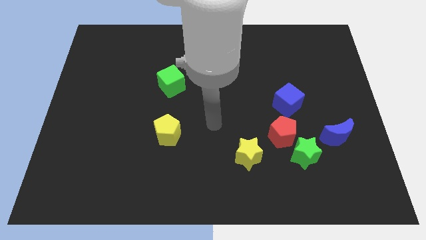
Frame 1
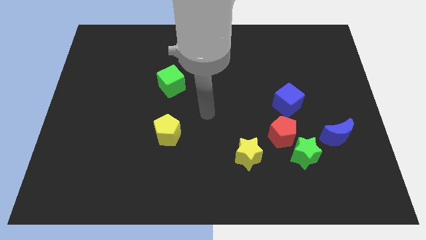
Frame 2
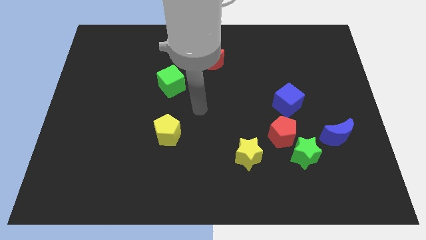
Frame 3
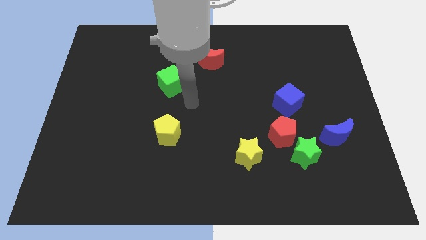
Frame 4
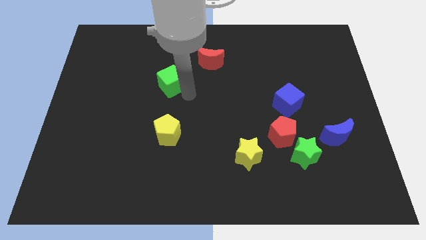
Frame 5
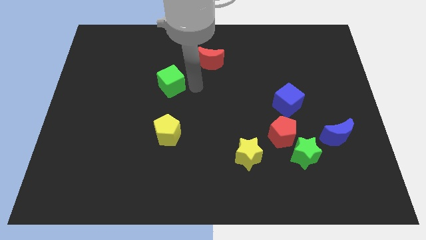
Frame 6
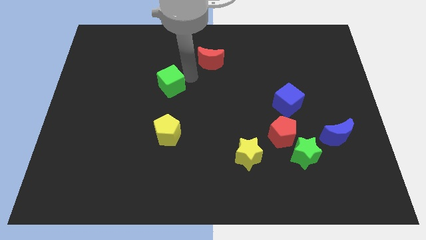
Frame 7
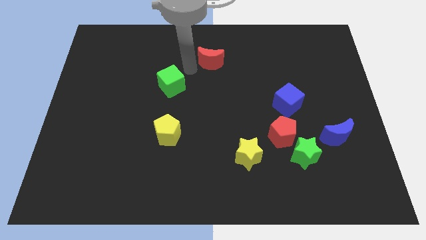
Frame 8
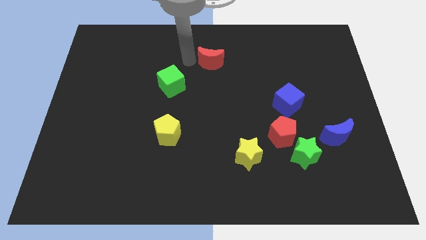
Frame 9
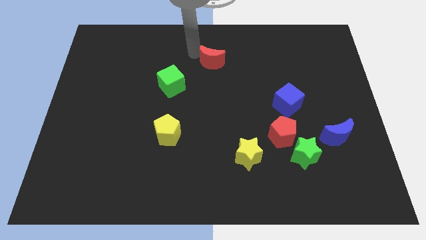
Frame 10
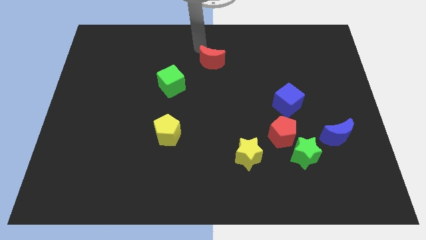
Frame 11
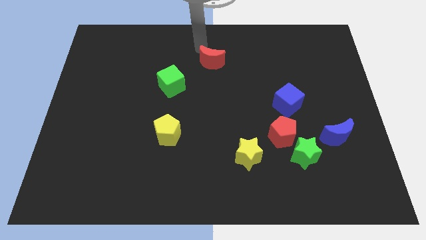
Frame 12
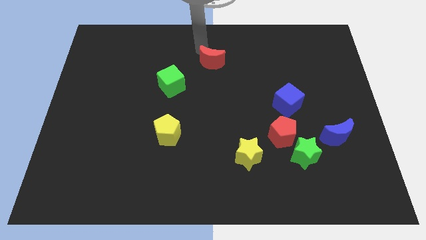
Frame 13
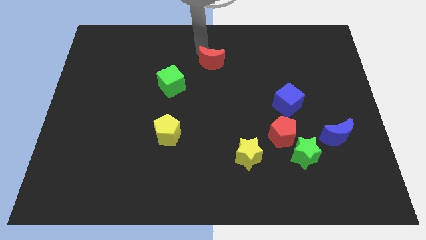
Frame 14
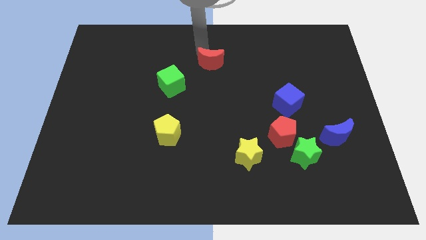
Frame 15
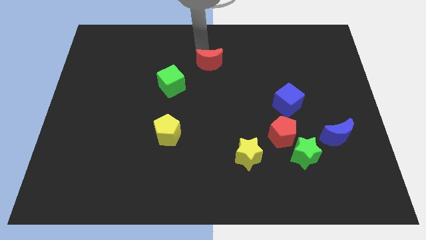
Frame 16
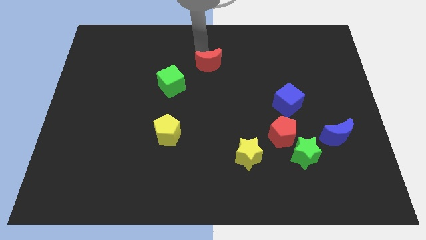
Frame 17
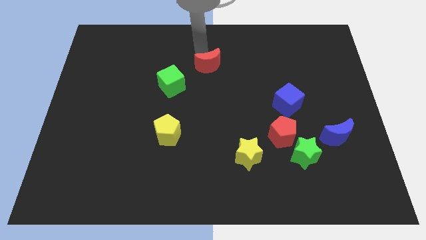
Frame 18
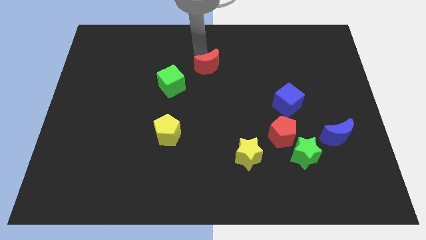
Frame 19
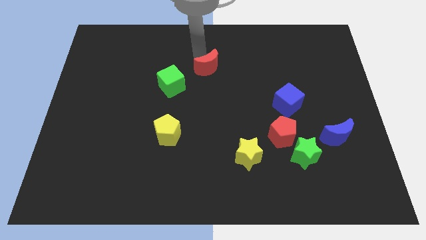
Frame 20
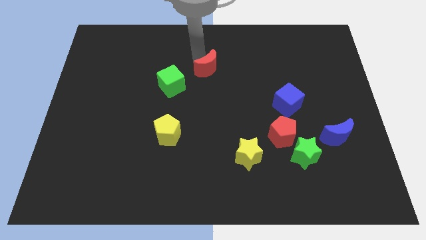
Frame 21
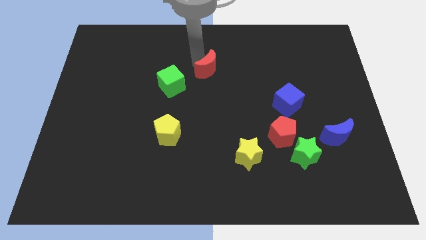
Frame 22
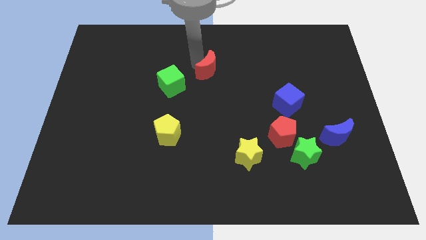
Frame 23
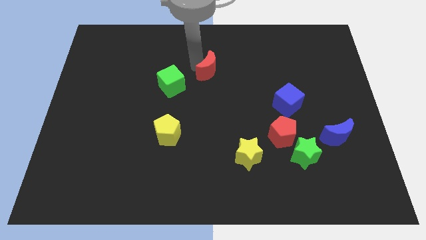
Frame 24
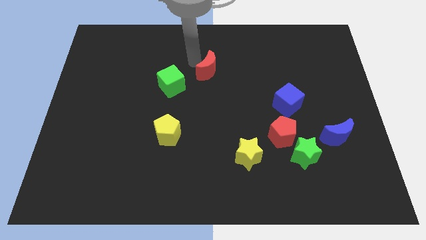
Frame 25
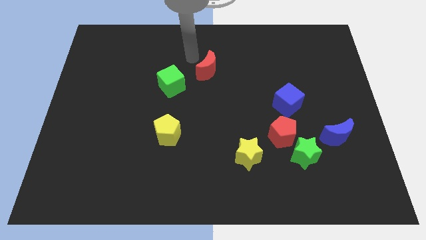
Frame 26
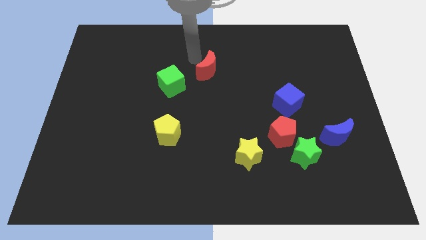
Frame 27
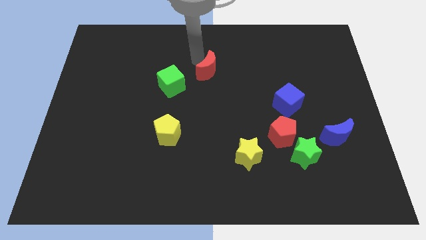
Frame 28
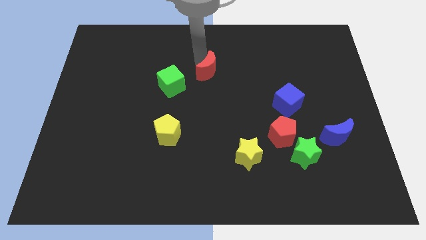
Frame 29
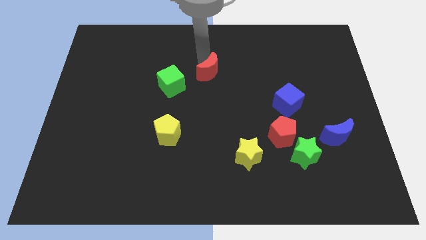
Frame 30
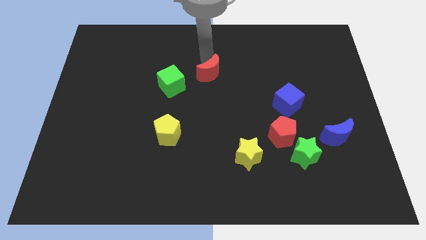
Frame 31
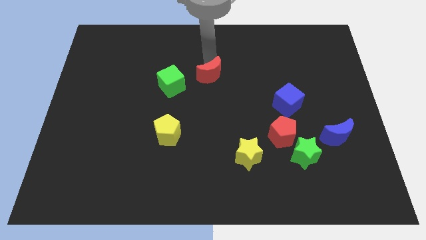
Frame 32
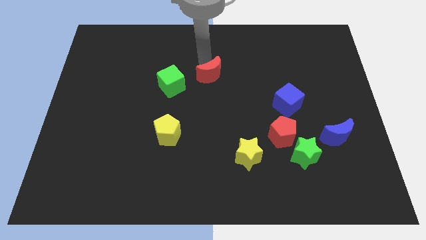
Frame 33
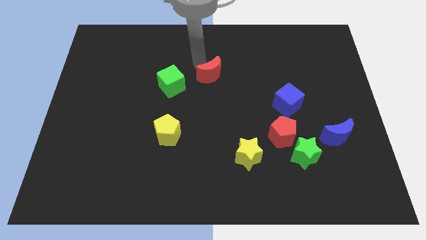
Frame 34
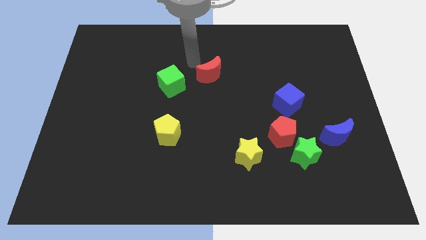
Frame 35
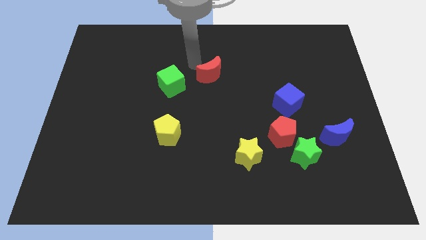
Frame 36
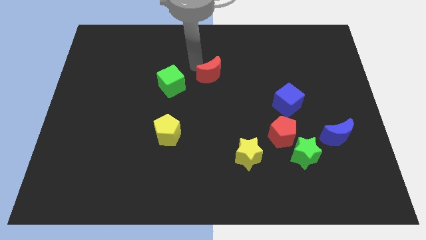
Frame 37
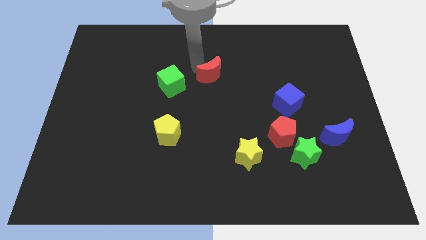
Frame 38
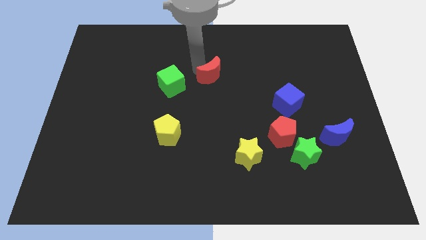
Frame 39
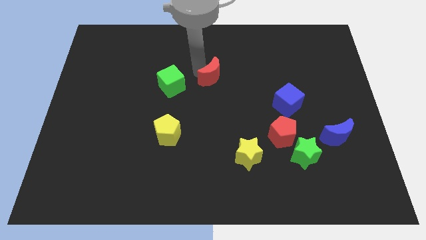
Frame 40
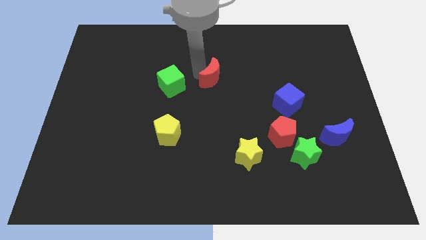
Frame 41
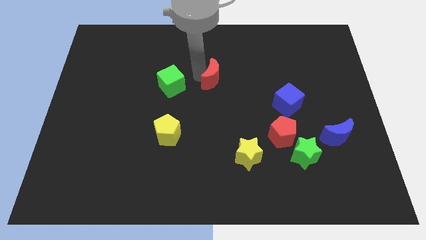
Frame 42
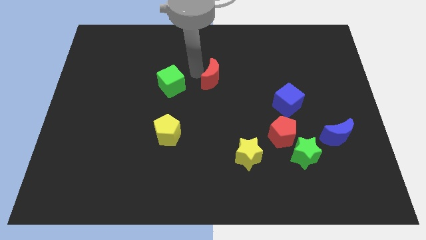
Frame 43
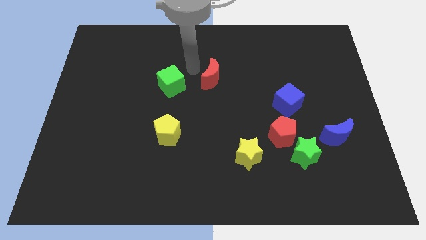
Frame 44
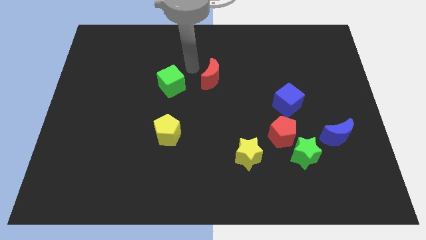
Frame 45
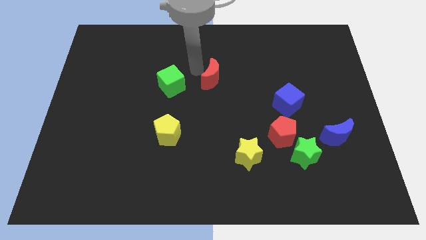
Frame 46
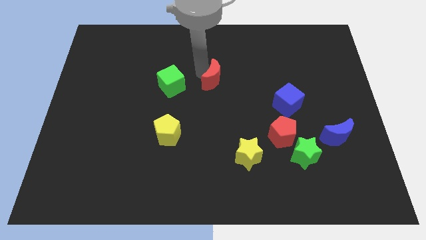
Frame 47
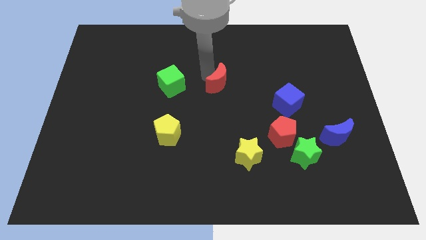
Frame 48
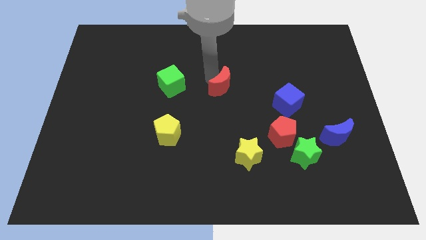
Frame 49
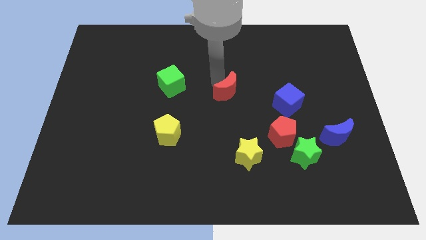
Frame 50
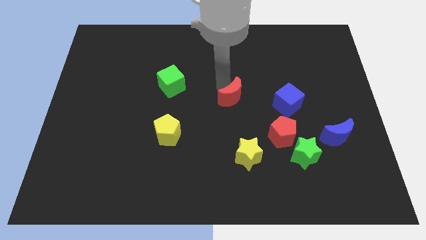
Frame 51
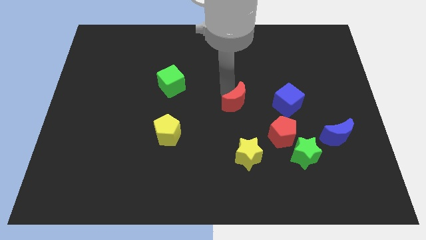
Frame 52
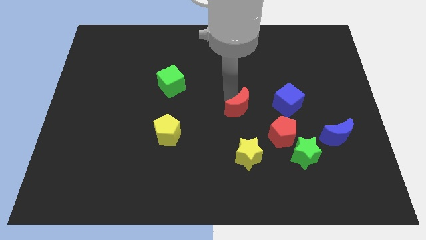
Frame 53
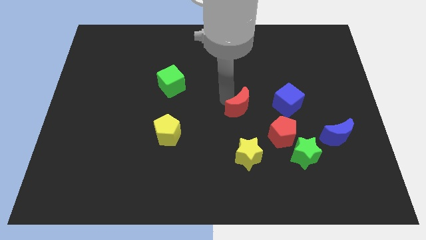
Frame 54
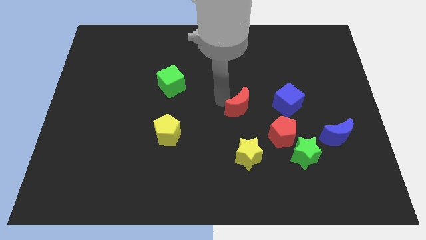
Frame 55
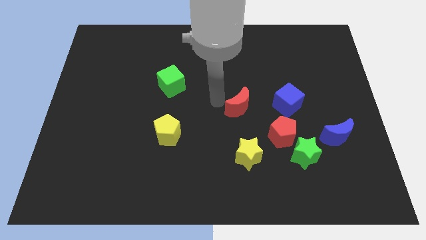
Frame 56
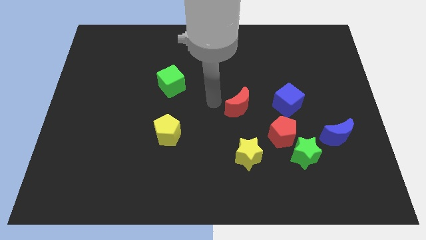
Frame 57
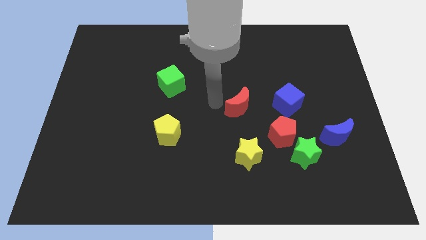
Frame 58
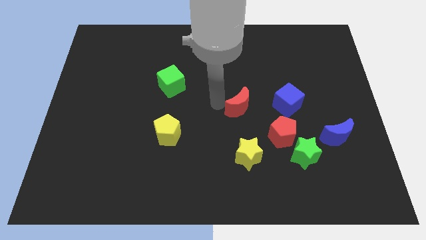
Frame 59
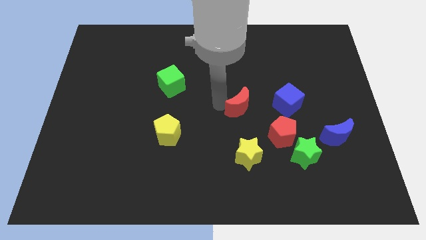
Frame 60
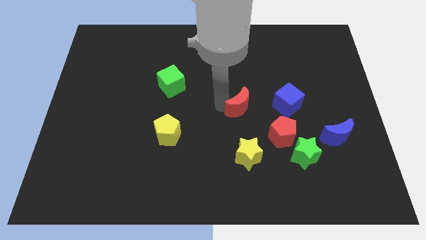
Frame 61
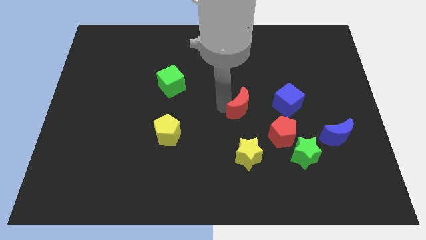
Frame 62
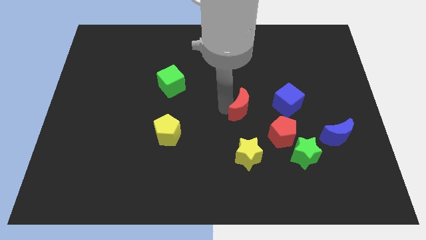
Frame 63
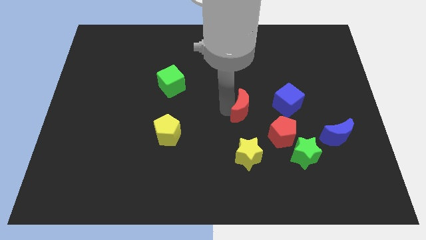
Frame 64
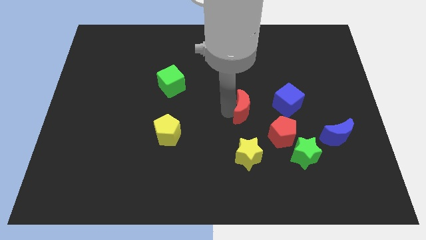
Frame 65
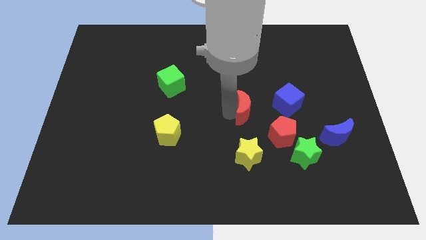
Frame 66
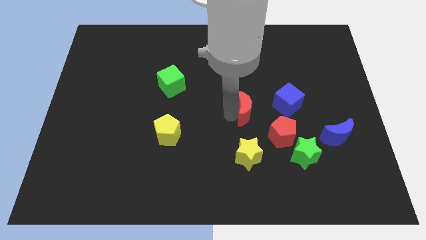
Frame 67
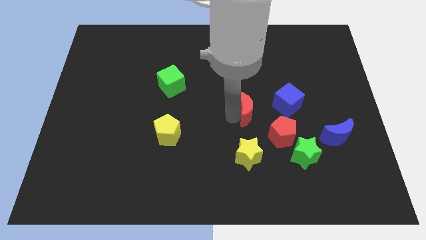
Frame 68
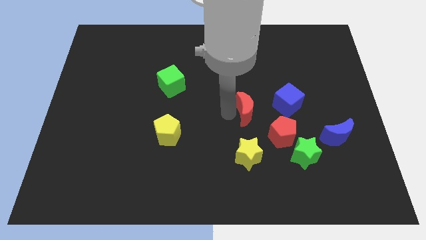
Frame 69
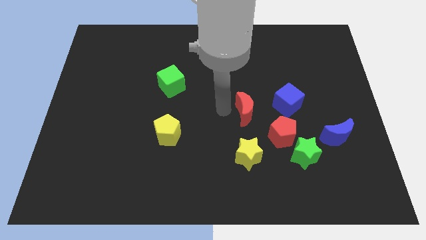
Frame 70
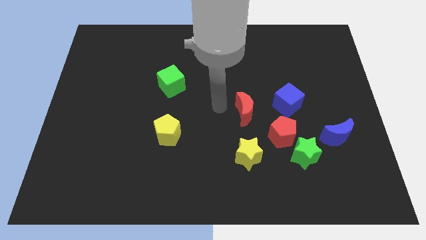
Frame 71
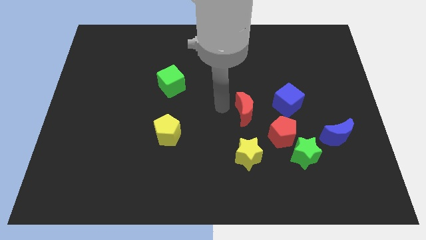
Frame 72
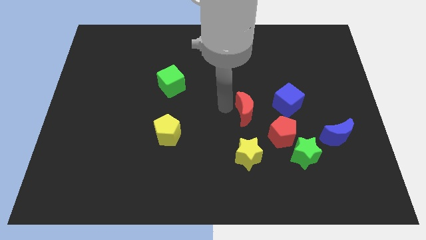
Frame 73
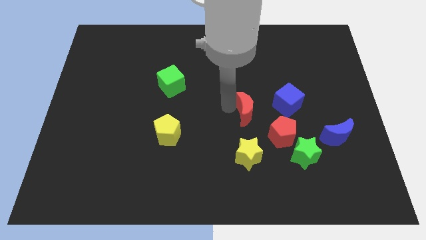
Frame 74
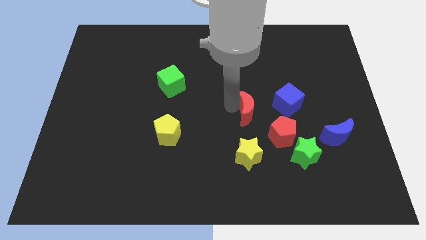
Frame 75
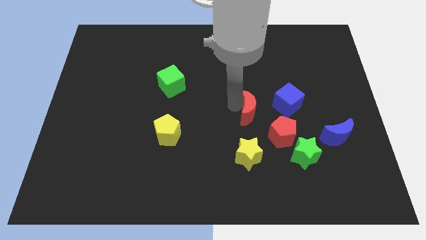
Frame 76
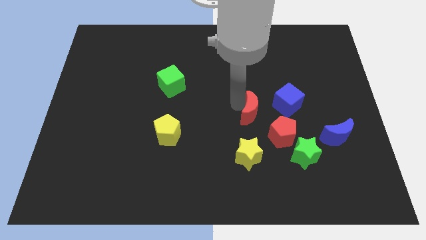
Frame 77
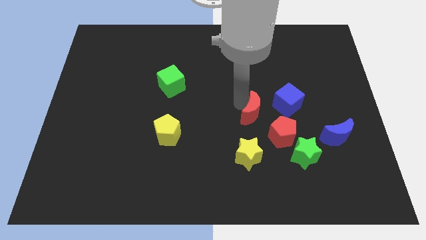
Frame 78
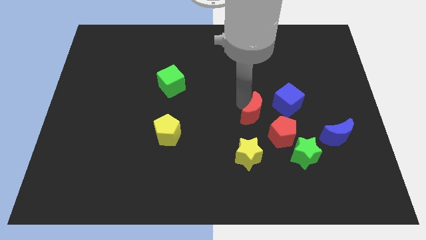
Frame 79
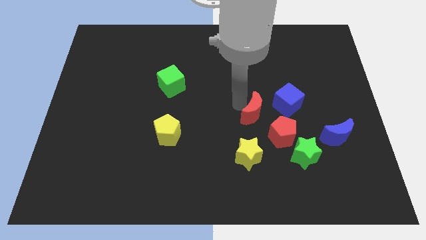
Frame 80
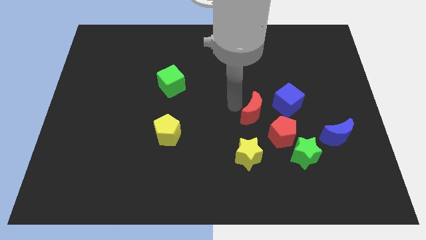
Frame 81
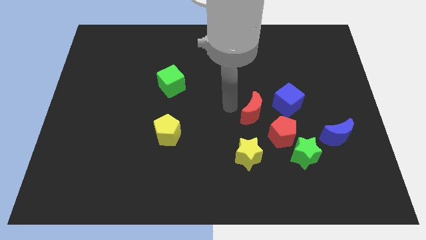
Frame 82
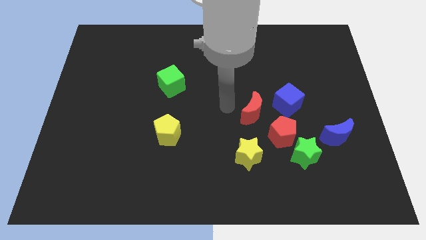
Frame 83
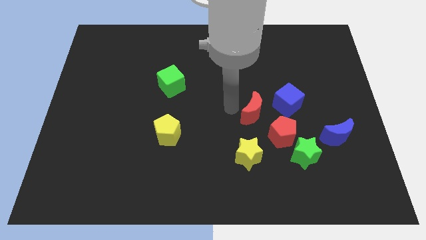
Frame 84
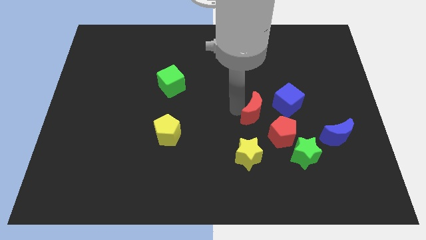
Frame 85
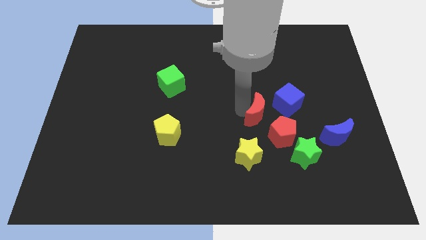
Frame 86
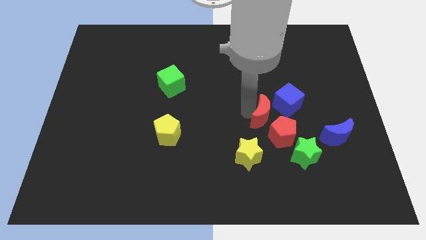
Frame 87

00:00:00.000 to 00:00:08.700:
slide the red moon downwards and to the right diagonally
